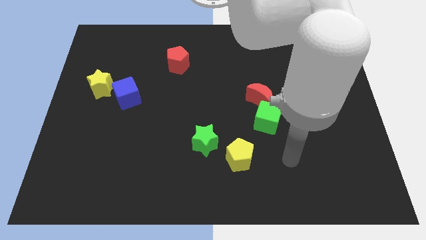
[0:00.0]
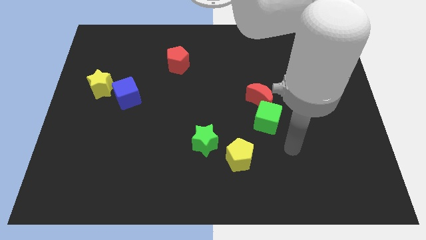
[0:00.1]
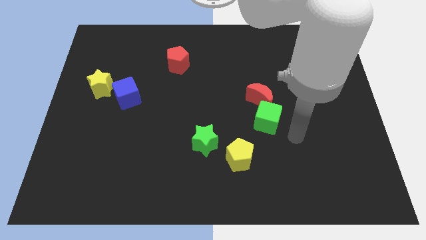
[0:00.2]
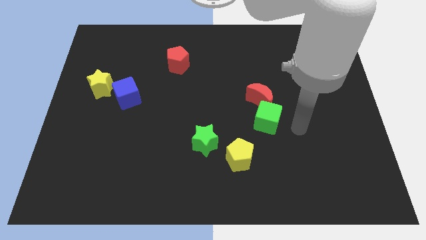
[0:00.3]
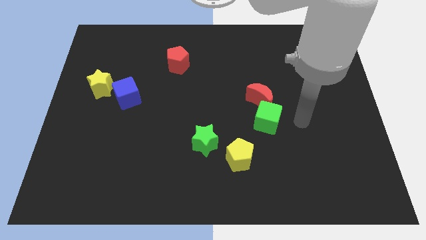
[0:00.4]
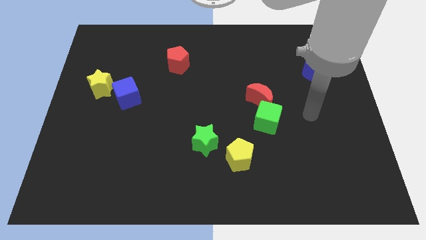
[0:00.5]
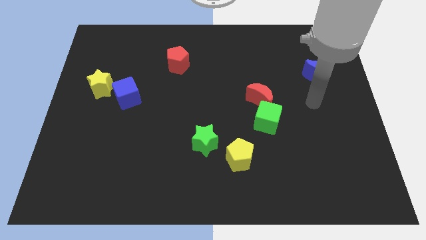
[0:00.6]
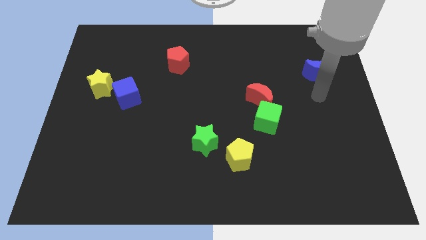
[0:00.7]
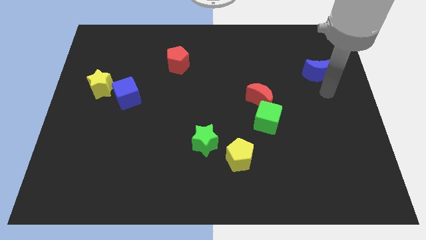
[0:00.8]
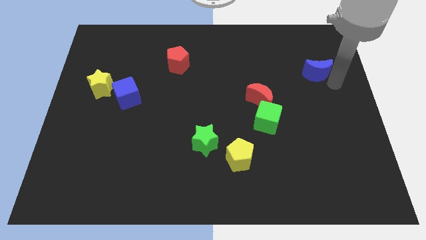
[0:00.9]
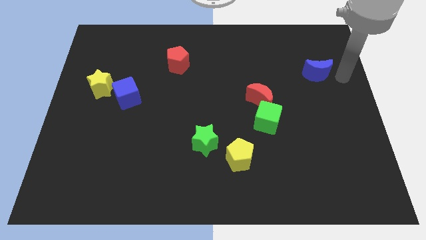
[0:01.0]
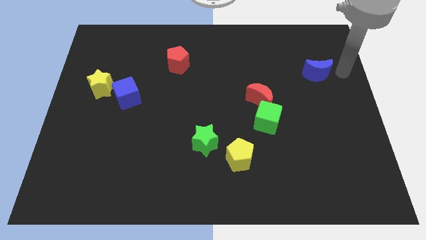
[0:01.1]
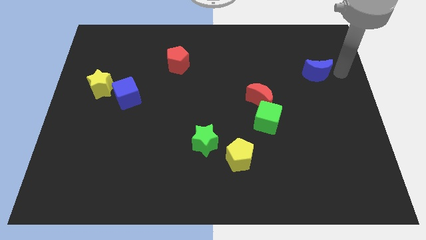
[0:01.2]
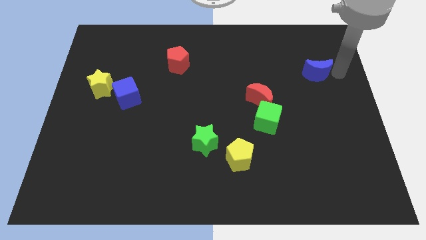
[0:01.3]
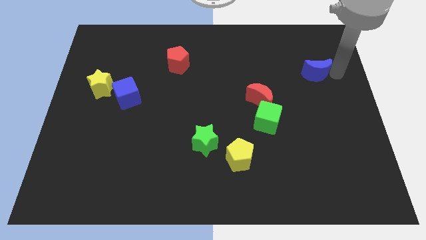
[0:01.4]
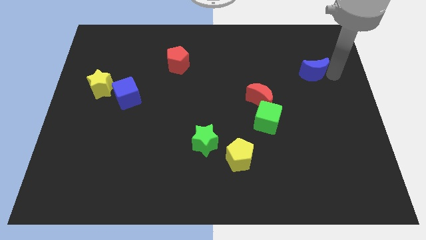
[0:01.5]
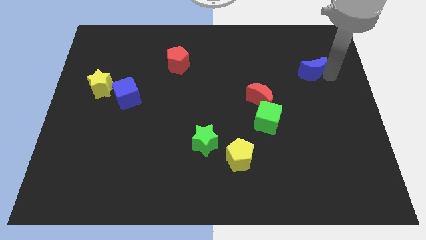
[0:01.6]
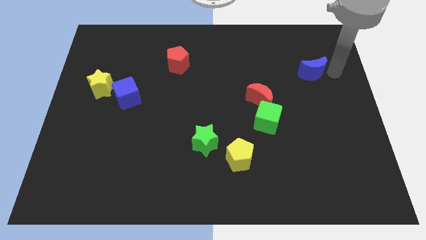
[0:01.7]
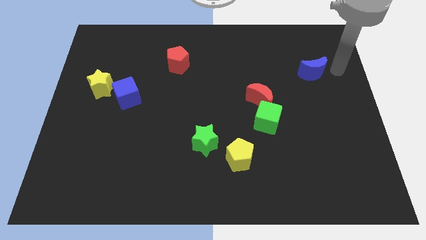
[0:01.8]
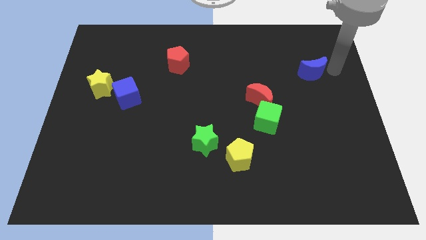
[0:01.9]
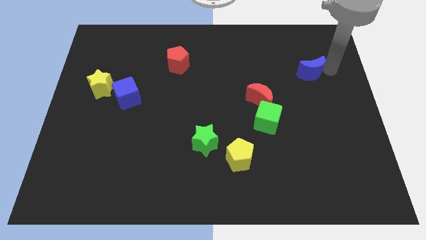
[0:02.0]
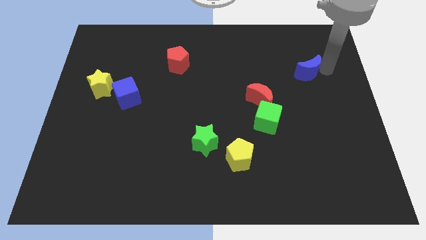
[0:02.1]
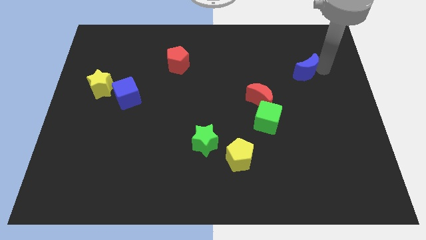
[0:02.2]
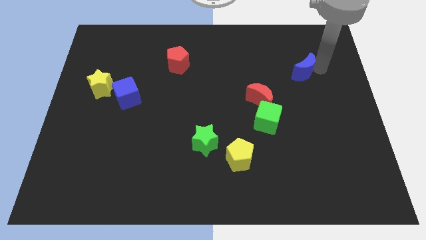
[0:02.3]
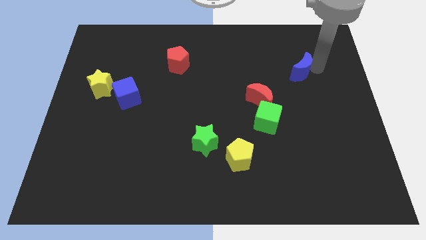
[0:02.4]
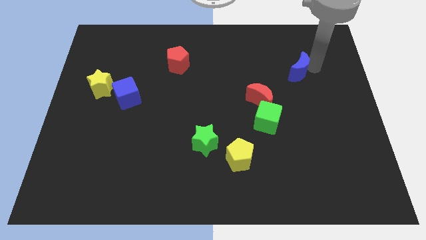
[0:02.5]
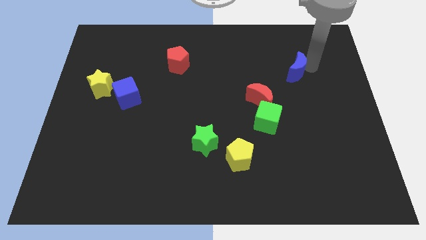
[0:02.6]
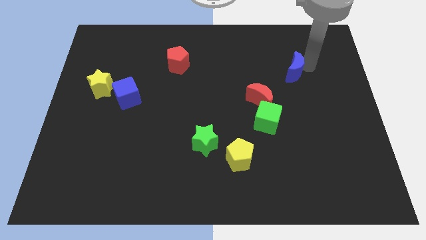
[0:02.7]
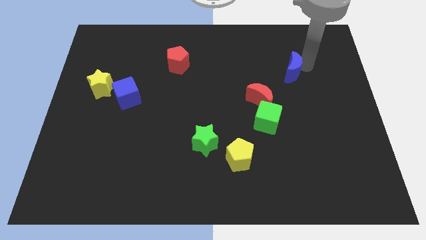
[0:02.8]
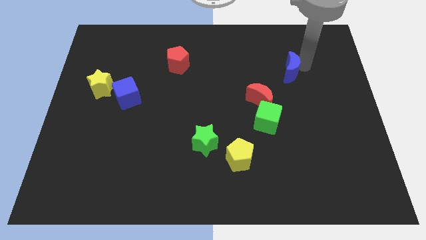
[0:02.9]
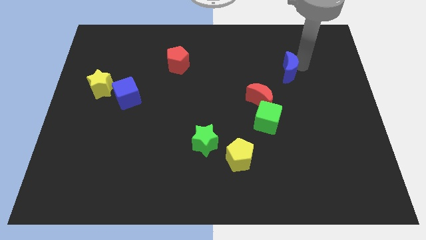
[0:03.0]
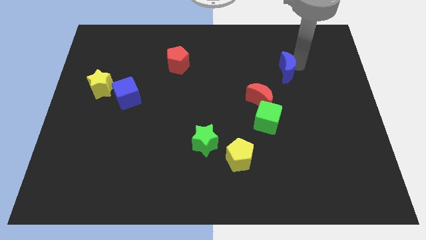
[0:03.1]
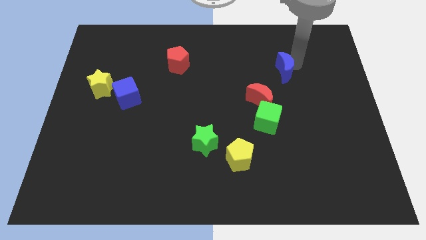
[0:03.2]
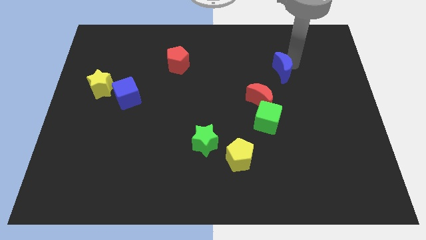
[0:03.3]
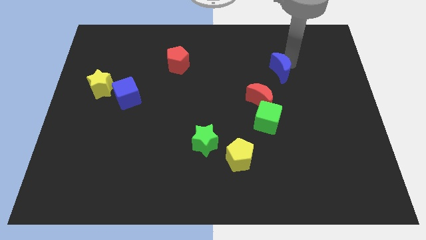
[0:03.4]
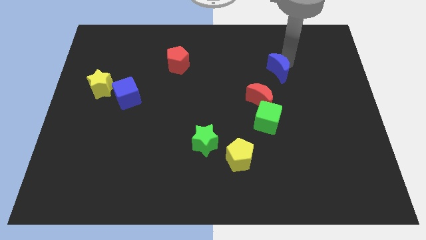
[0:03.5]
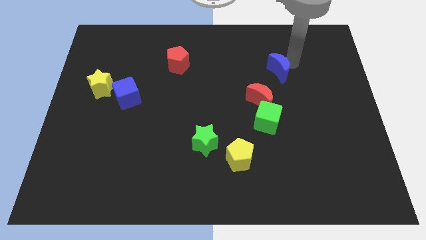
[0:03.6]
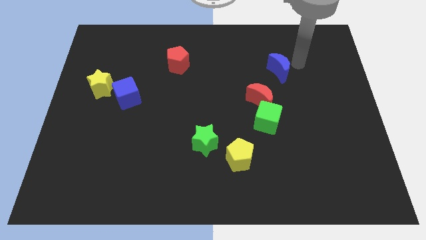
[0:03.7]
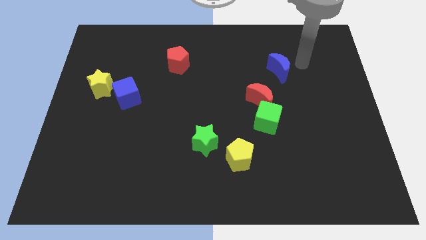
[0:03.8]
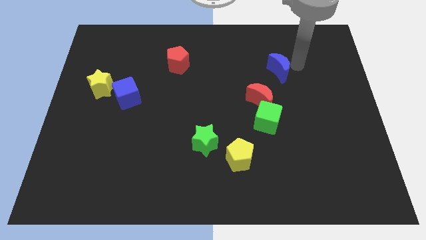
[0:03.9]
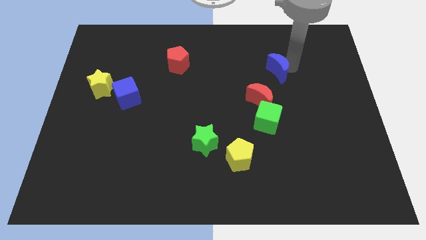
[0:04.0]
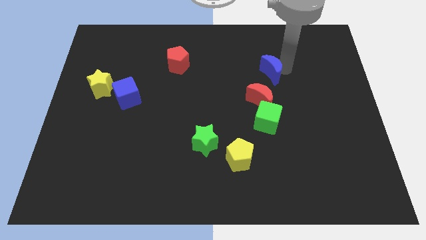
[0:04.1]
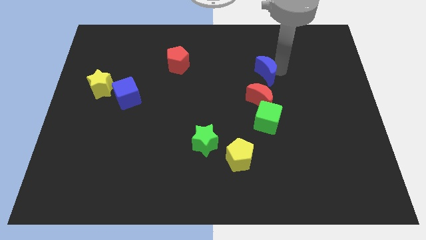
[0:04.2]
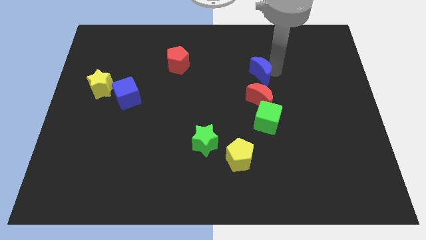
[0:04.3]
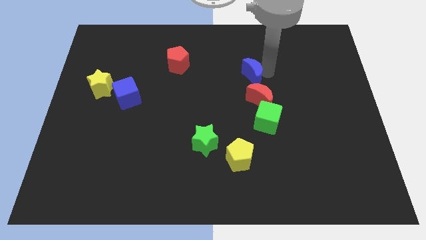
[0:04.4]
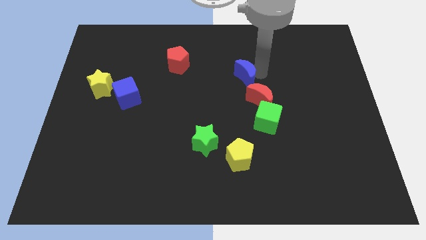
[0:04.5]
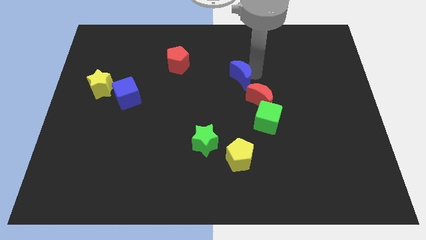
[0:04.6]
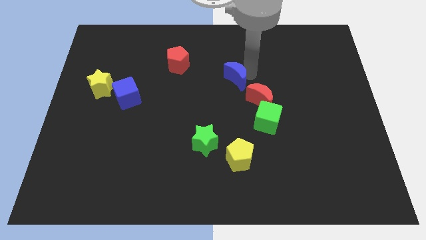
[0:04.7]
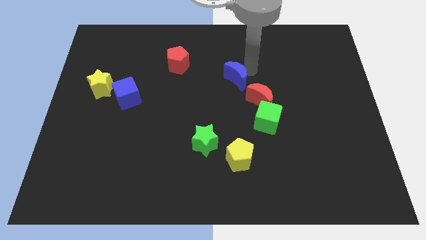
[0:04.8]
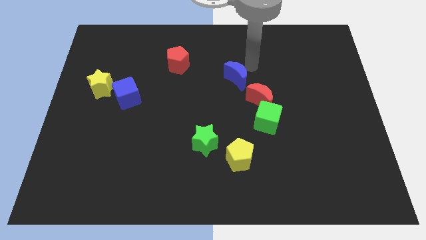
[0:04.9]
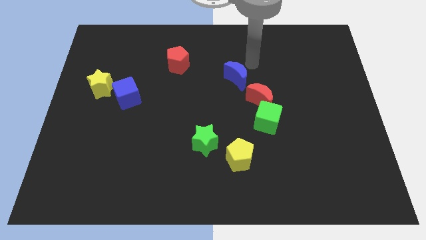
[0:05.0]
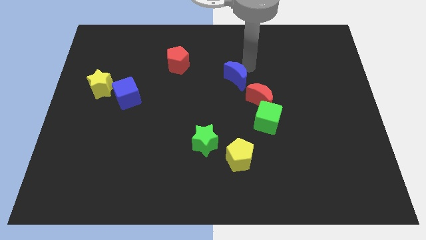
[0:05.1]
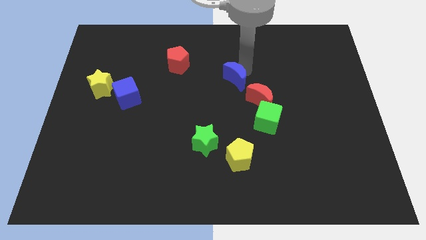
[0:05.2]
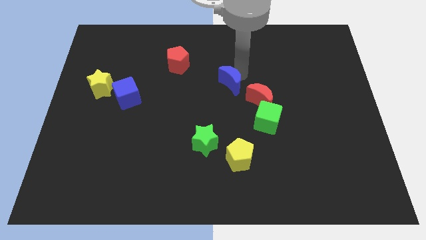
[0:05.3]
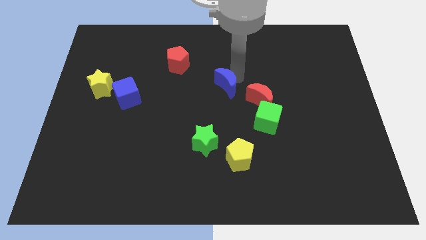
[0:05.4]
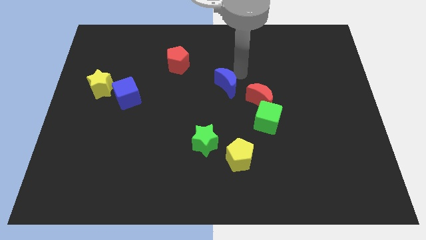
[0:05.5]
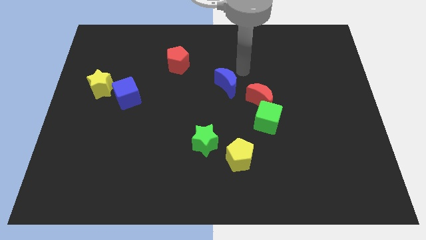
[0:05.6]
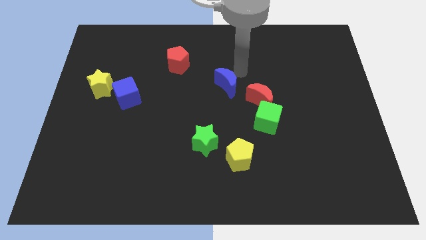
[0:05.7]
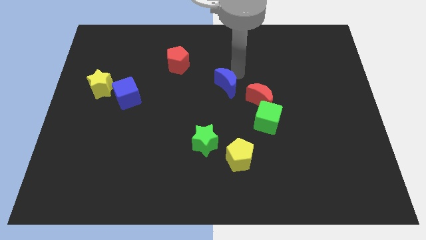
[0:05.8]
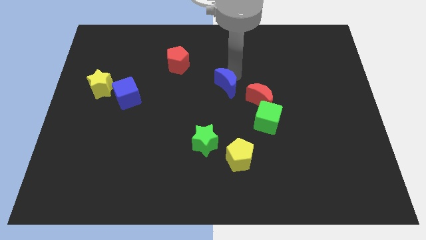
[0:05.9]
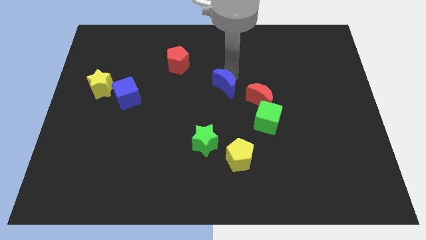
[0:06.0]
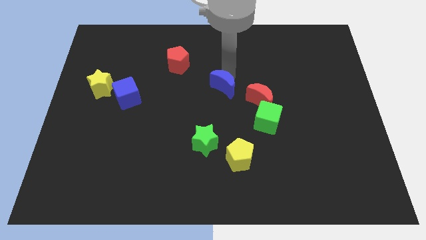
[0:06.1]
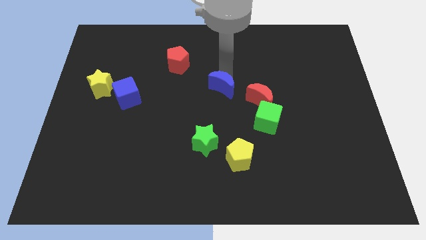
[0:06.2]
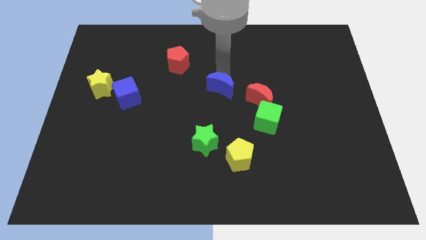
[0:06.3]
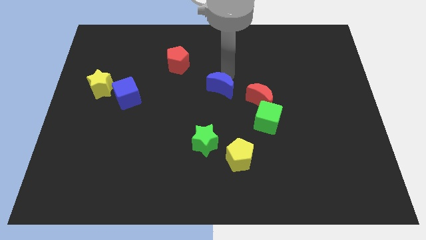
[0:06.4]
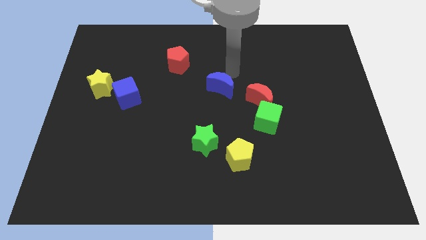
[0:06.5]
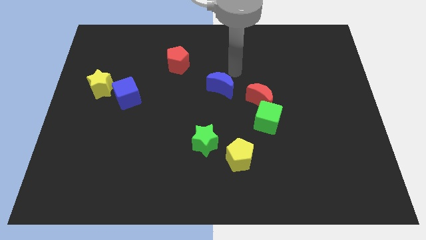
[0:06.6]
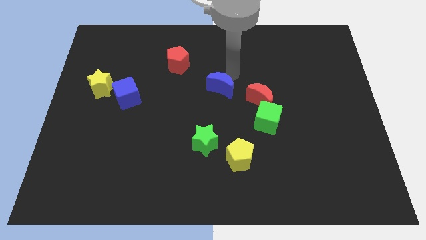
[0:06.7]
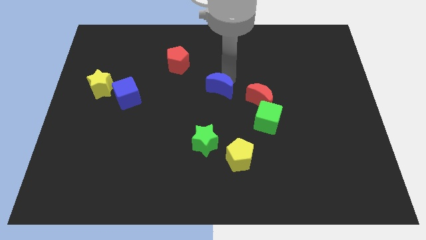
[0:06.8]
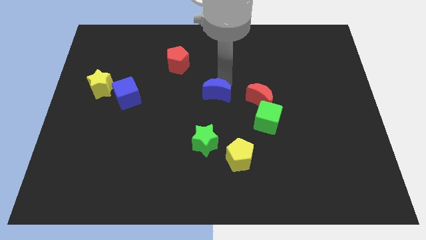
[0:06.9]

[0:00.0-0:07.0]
put the blue moon to the top side of the green star
